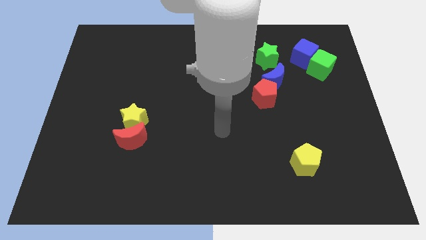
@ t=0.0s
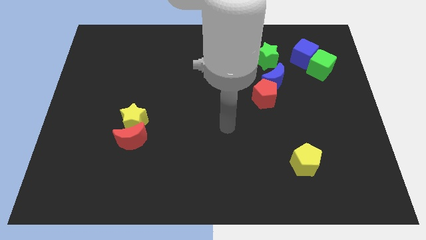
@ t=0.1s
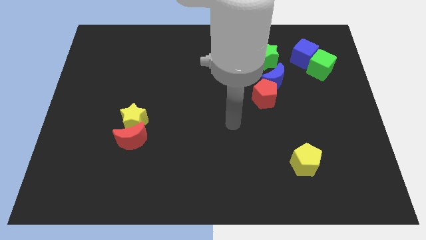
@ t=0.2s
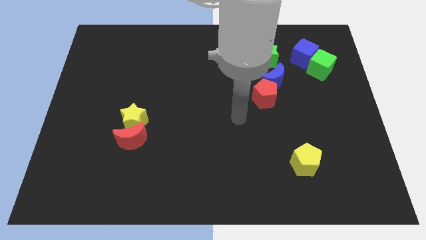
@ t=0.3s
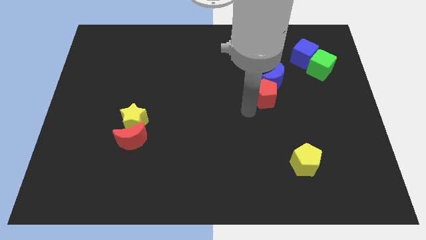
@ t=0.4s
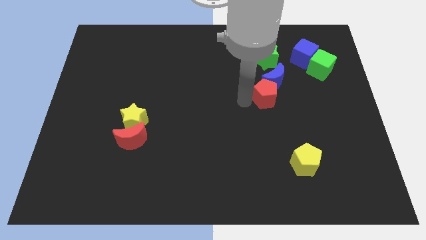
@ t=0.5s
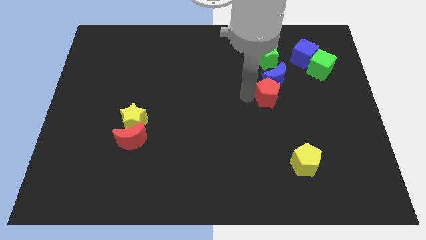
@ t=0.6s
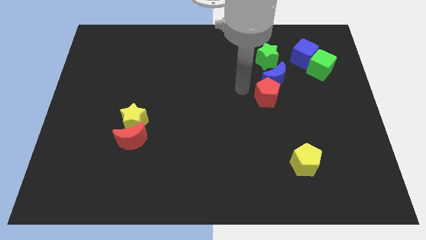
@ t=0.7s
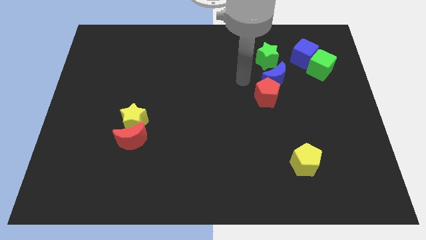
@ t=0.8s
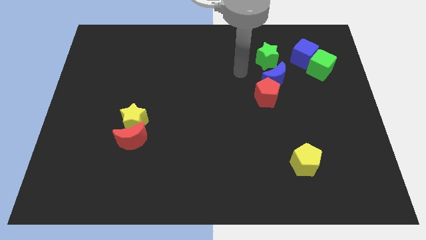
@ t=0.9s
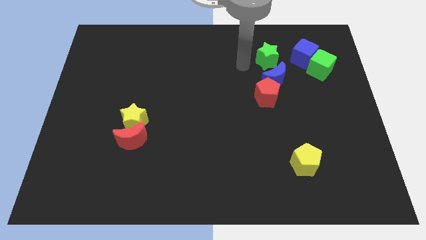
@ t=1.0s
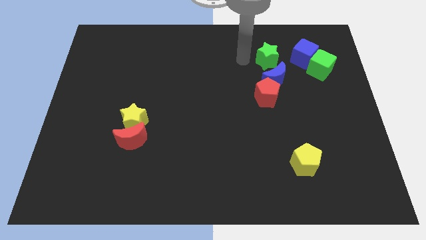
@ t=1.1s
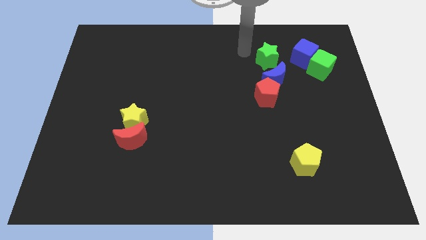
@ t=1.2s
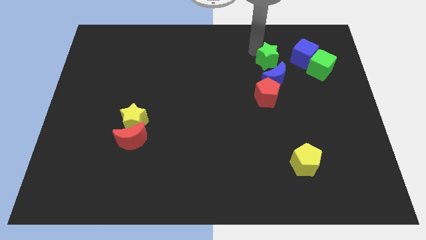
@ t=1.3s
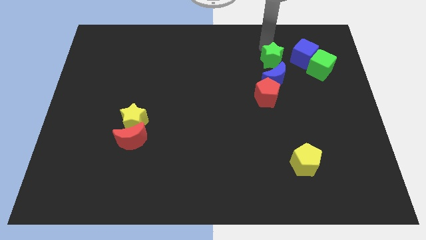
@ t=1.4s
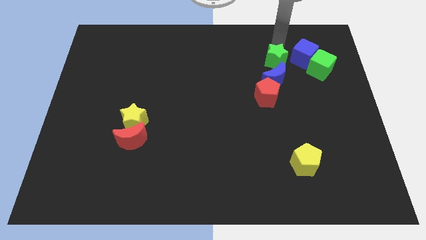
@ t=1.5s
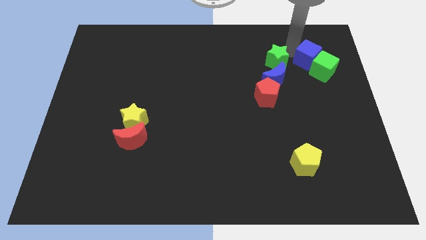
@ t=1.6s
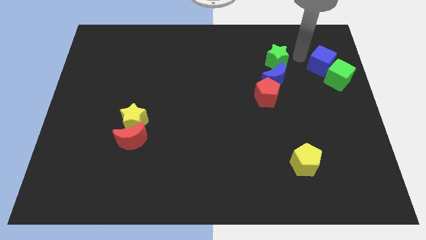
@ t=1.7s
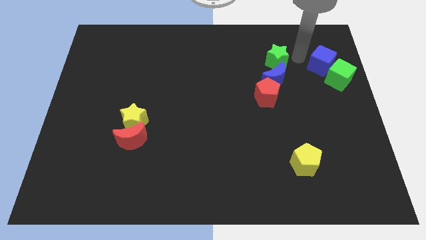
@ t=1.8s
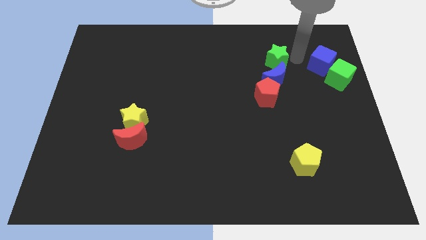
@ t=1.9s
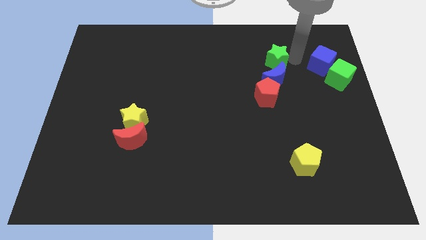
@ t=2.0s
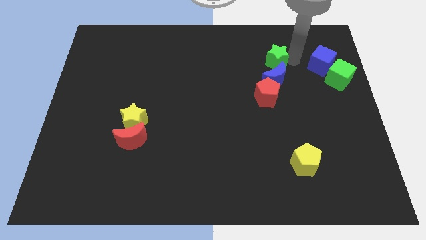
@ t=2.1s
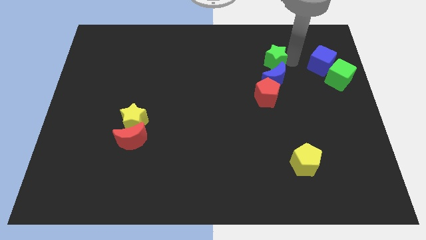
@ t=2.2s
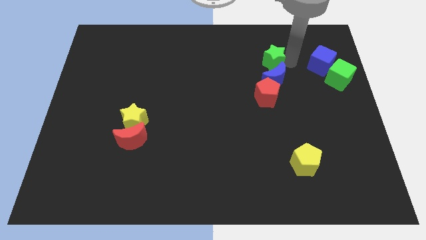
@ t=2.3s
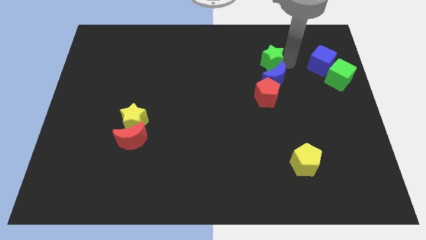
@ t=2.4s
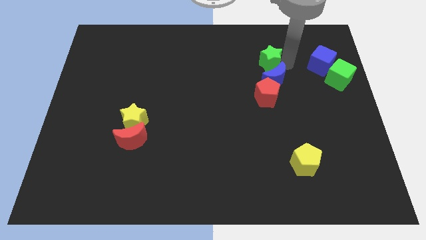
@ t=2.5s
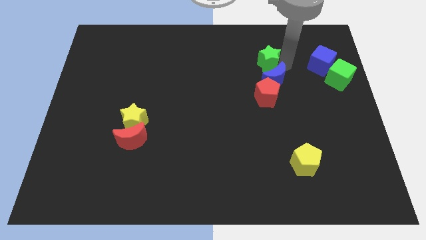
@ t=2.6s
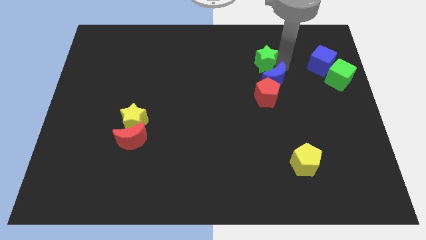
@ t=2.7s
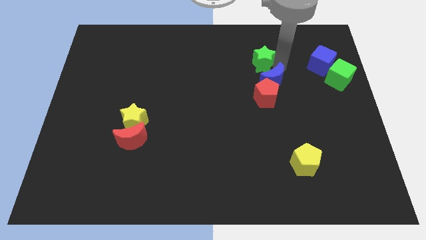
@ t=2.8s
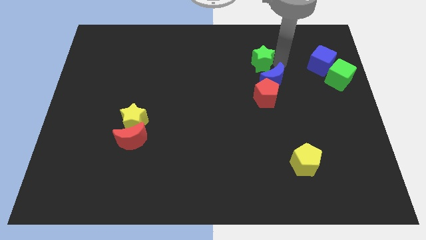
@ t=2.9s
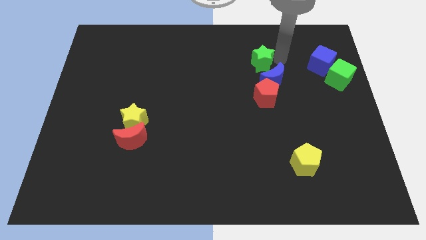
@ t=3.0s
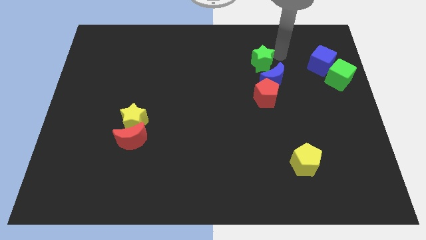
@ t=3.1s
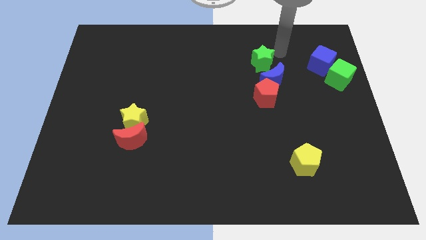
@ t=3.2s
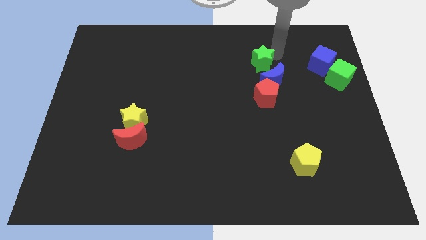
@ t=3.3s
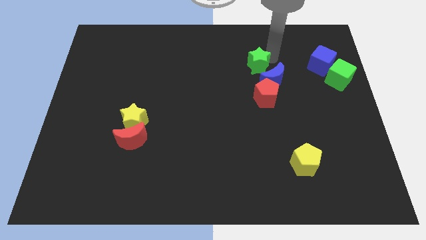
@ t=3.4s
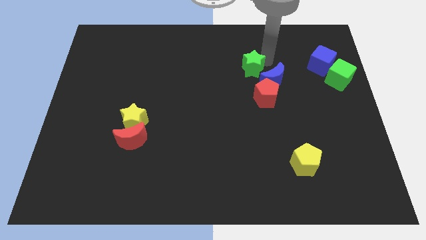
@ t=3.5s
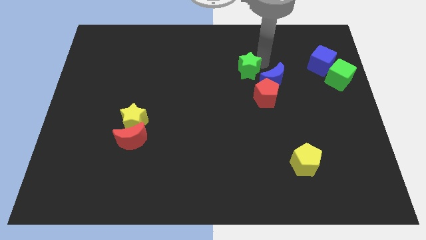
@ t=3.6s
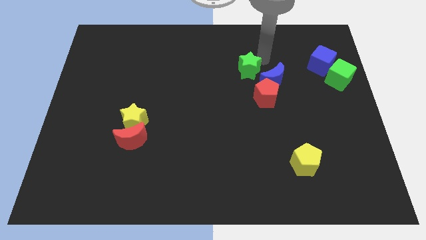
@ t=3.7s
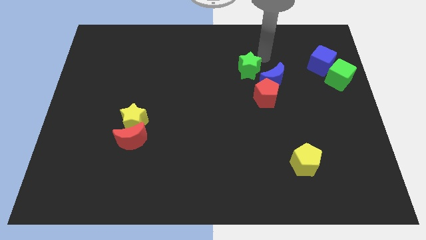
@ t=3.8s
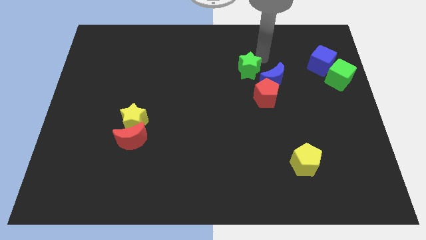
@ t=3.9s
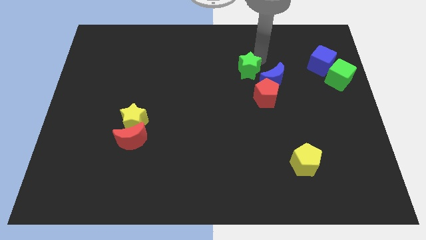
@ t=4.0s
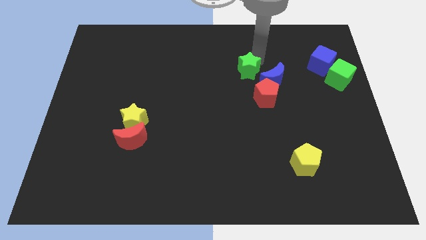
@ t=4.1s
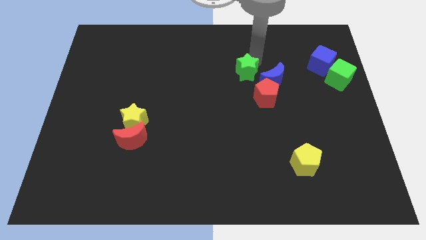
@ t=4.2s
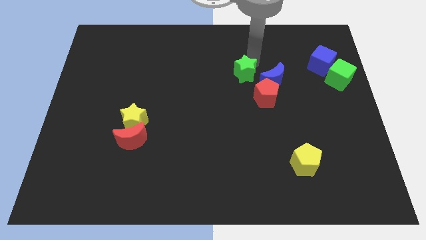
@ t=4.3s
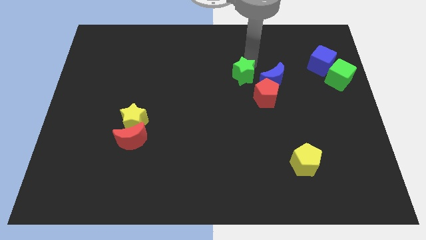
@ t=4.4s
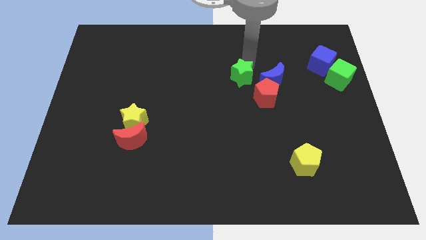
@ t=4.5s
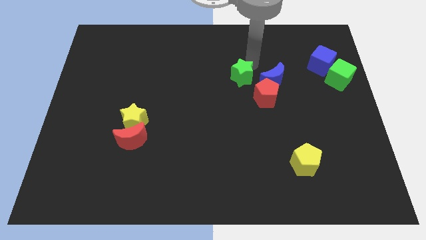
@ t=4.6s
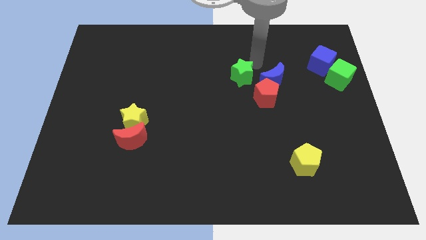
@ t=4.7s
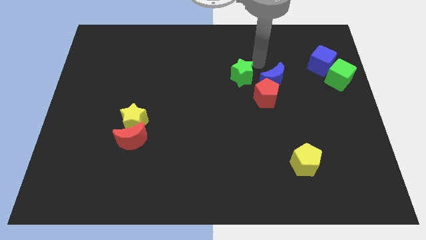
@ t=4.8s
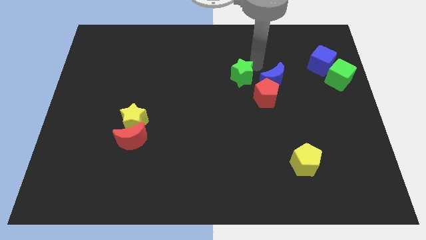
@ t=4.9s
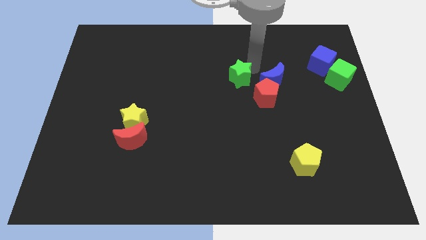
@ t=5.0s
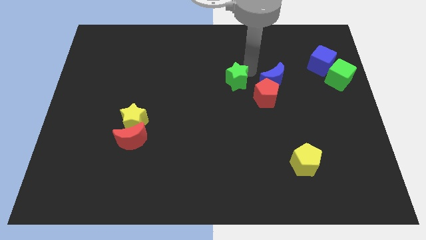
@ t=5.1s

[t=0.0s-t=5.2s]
put the green star to the left of the red pentagon

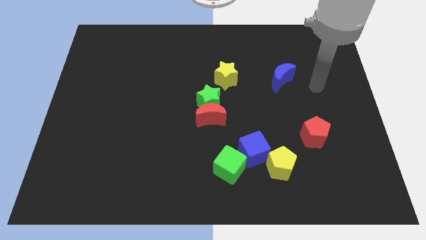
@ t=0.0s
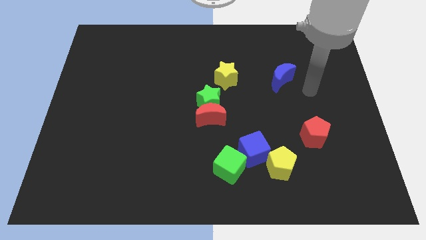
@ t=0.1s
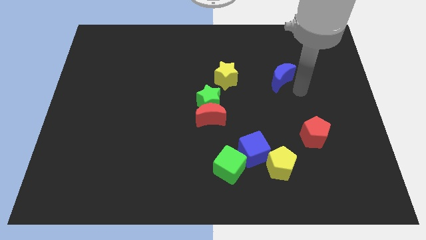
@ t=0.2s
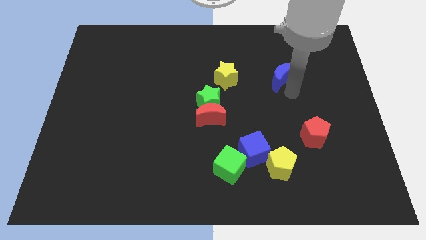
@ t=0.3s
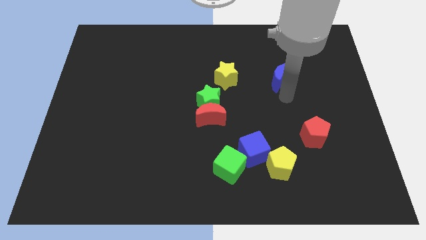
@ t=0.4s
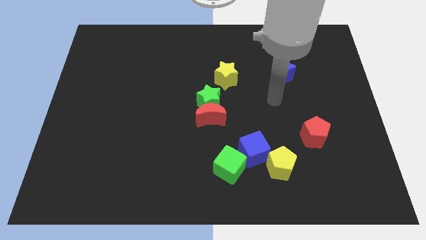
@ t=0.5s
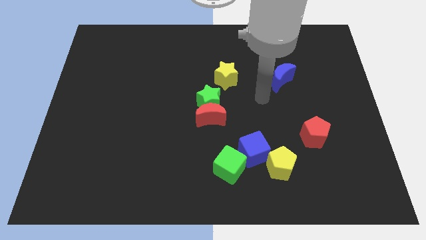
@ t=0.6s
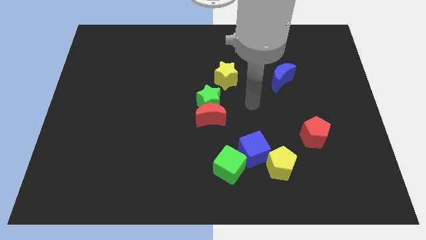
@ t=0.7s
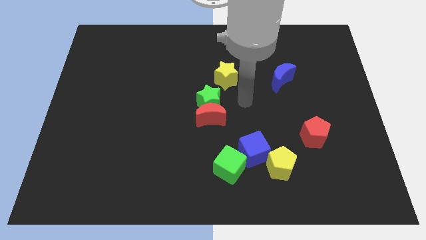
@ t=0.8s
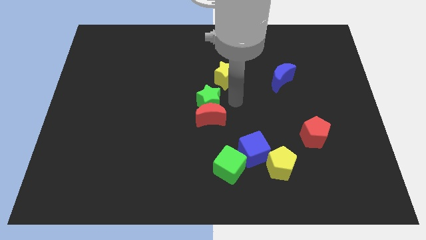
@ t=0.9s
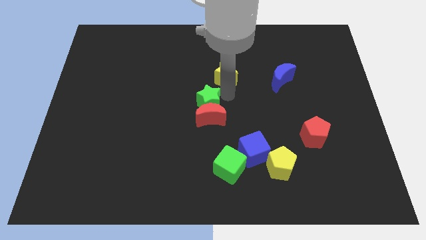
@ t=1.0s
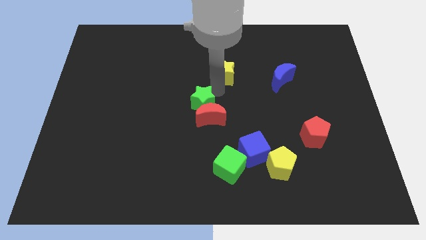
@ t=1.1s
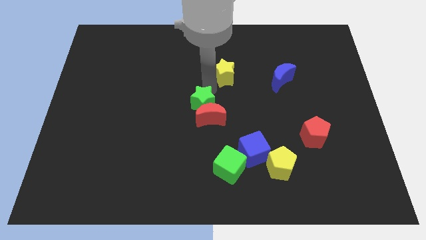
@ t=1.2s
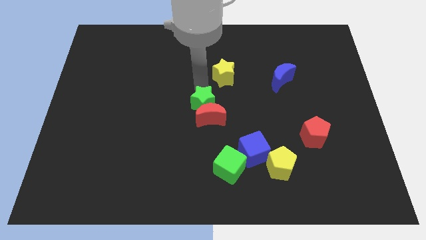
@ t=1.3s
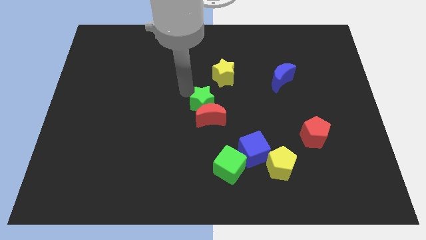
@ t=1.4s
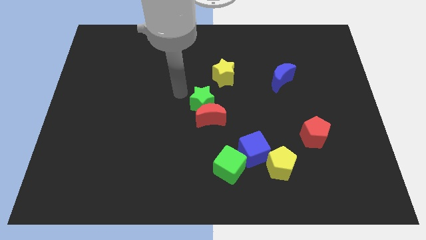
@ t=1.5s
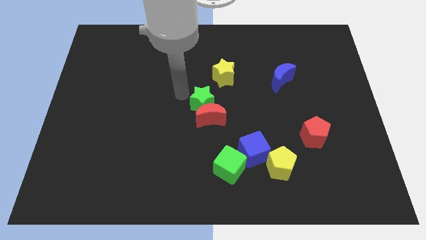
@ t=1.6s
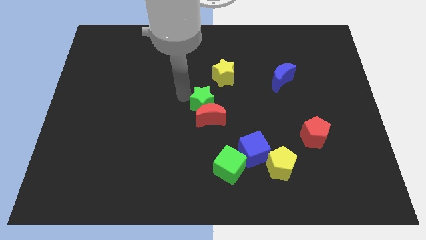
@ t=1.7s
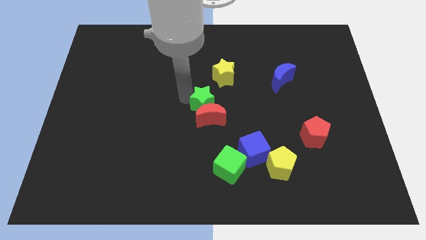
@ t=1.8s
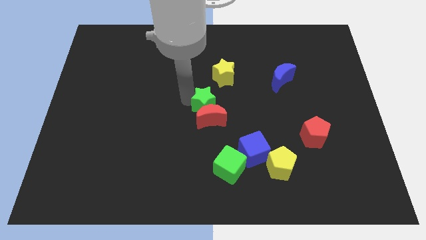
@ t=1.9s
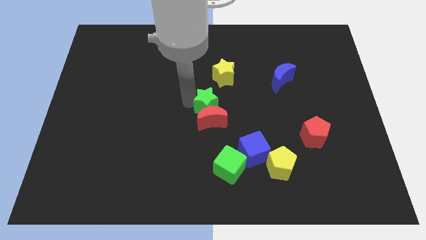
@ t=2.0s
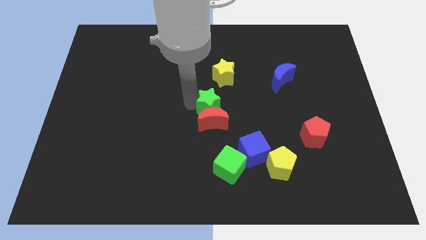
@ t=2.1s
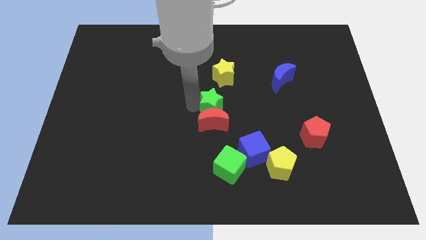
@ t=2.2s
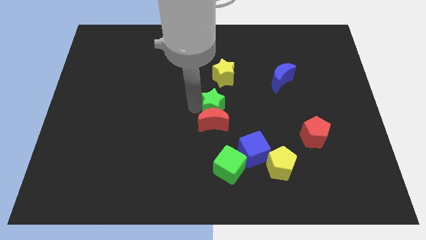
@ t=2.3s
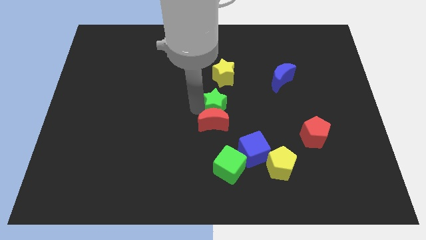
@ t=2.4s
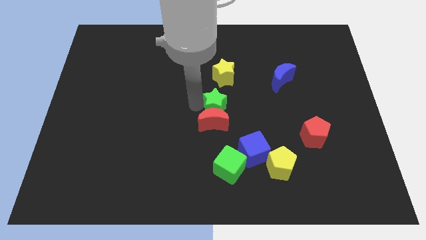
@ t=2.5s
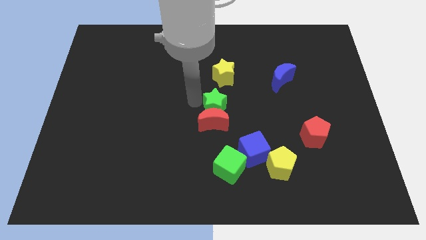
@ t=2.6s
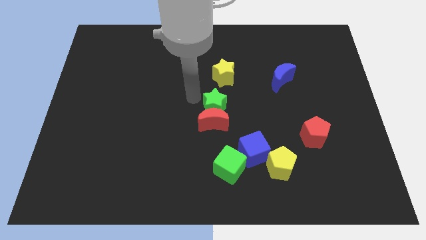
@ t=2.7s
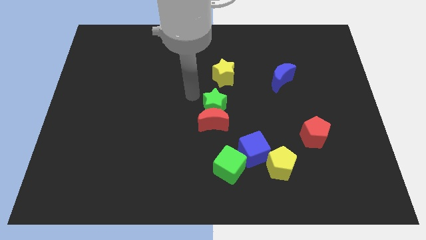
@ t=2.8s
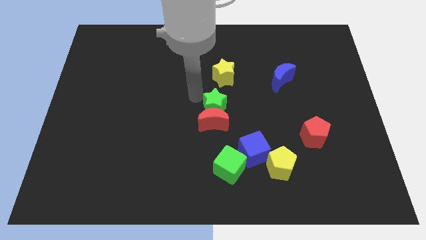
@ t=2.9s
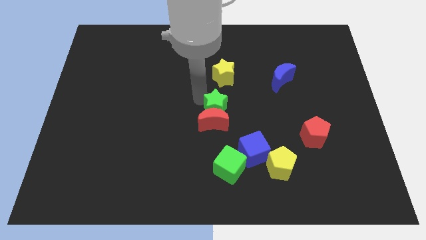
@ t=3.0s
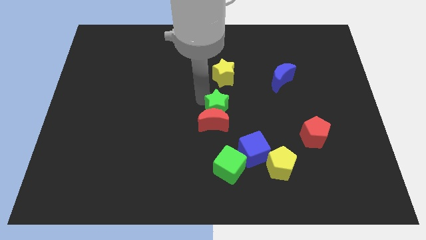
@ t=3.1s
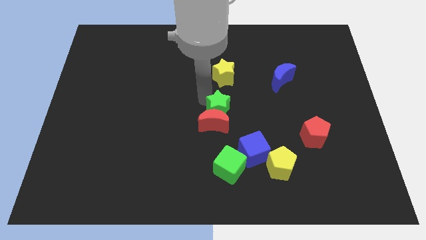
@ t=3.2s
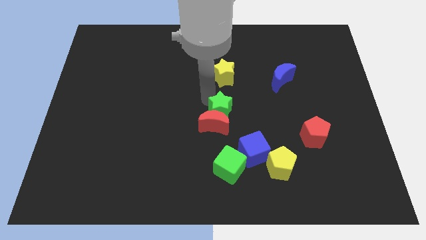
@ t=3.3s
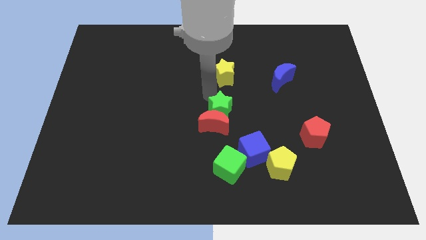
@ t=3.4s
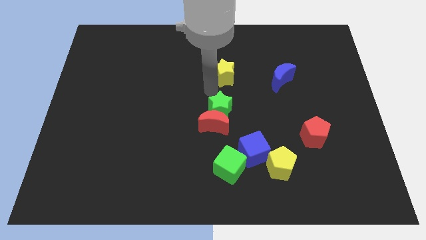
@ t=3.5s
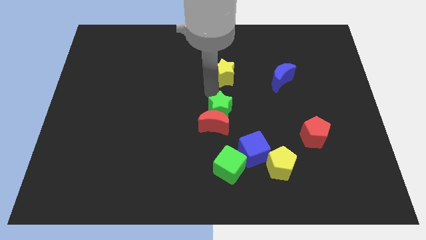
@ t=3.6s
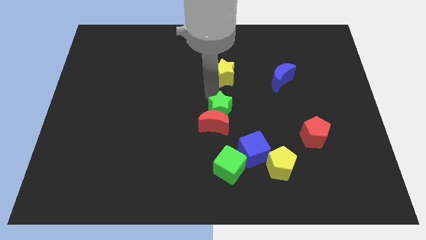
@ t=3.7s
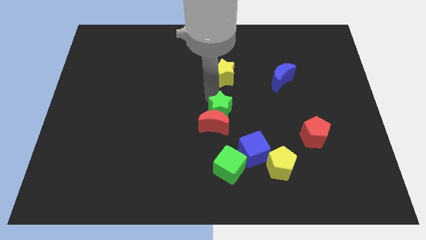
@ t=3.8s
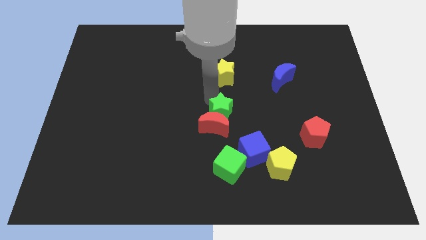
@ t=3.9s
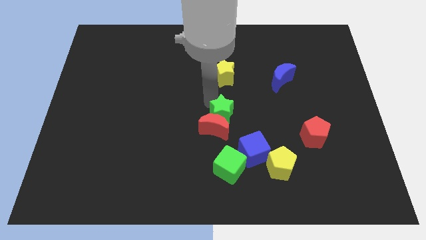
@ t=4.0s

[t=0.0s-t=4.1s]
put the green star diagonally up and to the left of the blue cube
